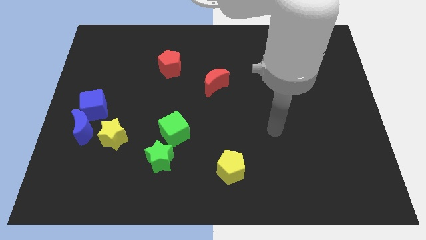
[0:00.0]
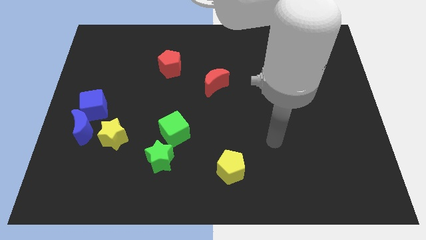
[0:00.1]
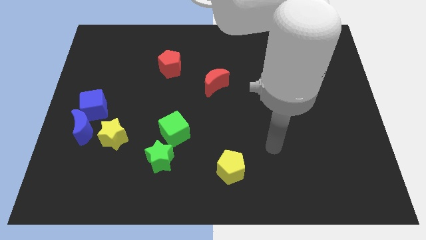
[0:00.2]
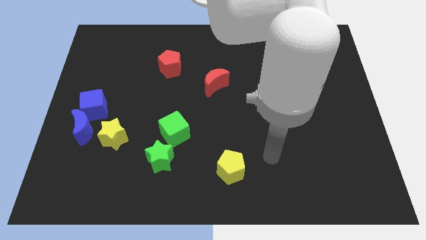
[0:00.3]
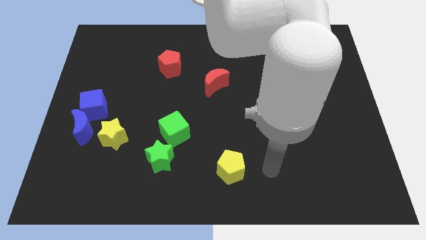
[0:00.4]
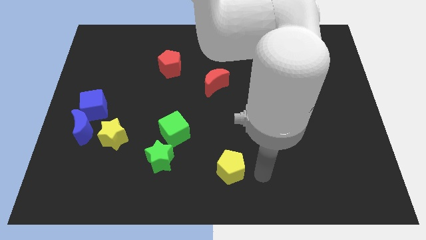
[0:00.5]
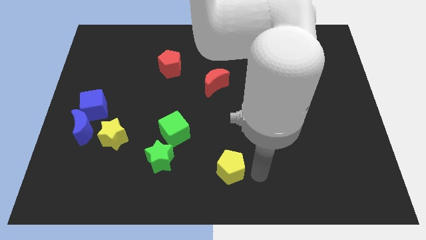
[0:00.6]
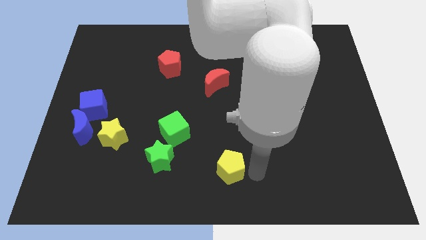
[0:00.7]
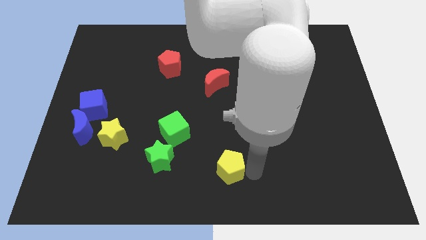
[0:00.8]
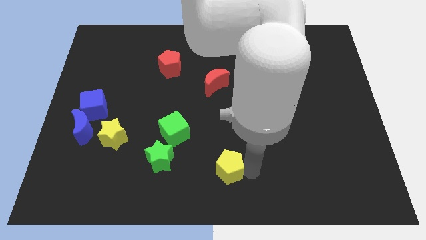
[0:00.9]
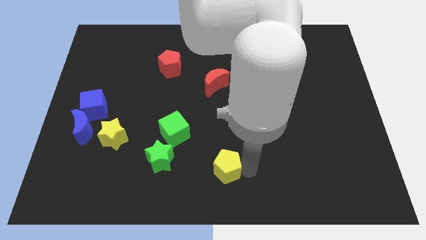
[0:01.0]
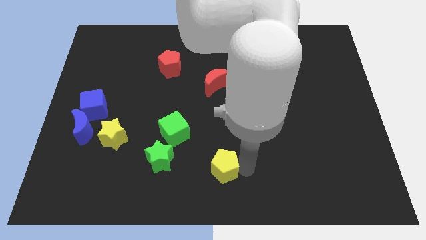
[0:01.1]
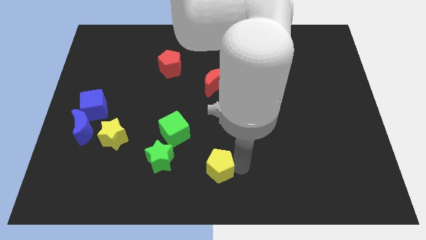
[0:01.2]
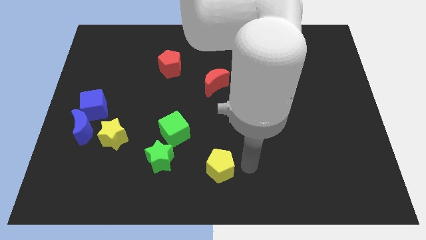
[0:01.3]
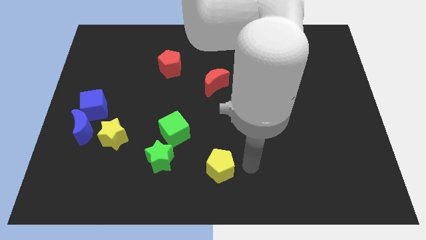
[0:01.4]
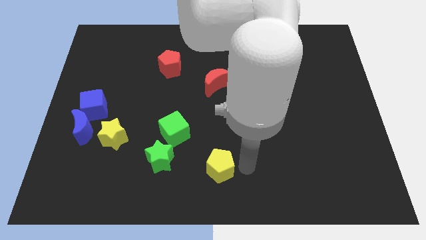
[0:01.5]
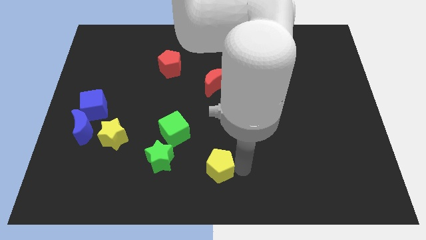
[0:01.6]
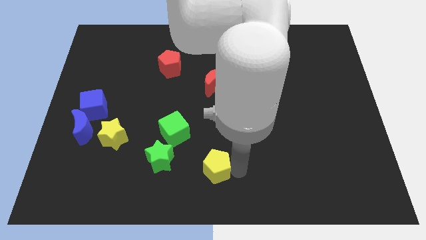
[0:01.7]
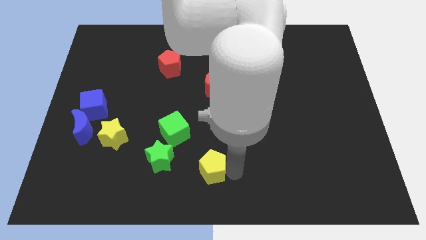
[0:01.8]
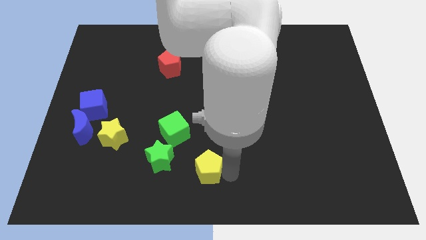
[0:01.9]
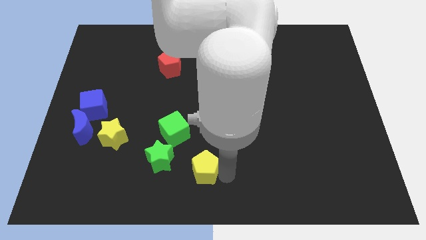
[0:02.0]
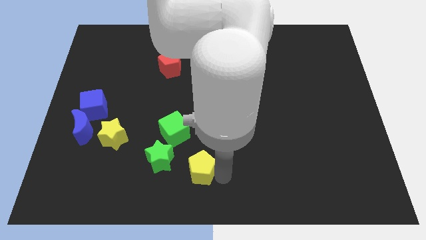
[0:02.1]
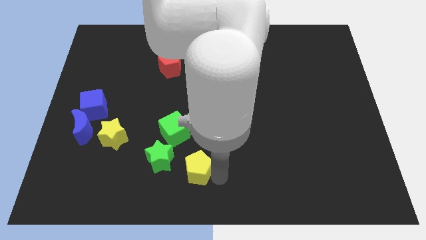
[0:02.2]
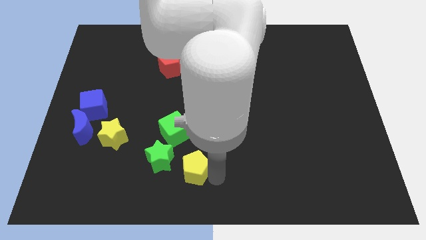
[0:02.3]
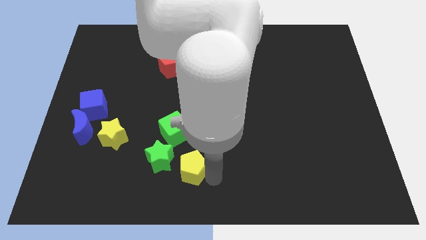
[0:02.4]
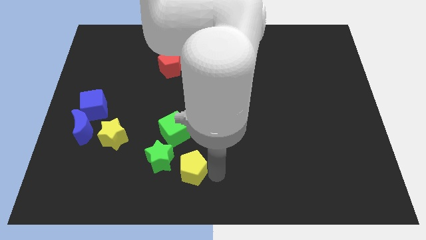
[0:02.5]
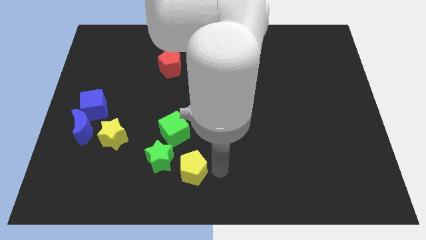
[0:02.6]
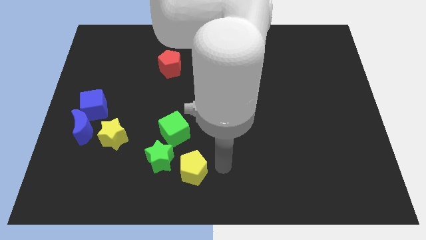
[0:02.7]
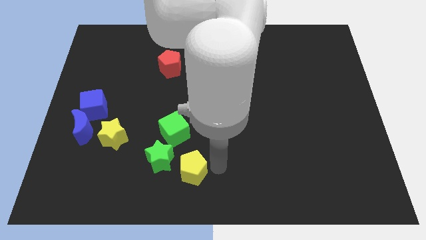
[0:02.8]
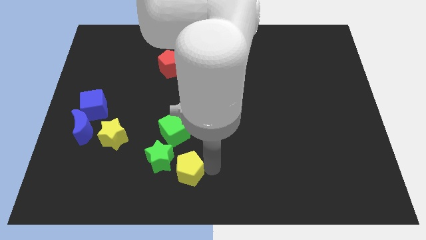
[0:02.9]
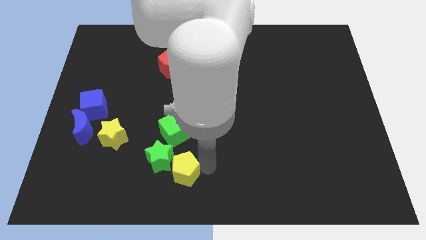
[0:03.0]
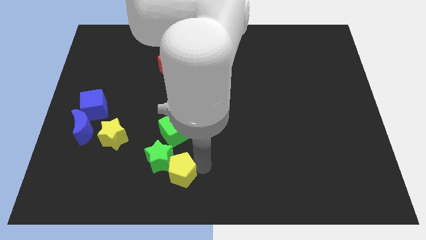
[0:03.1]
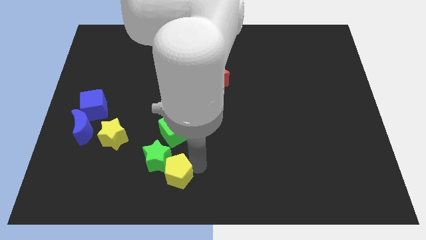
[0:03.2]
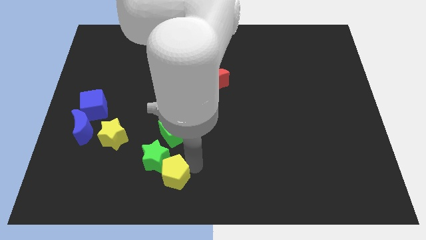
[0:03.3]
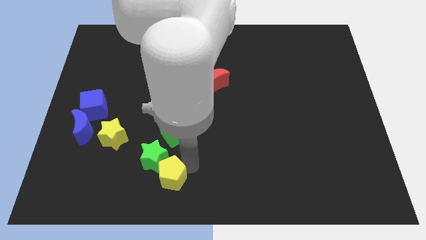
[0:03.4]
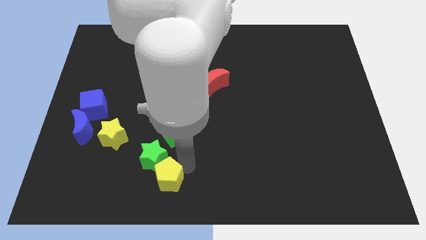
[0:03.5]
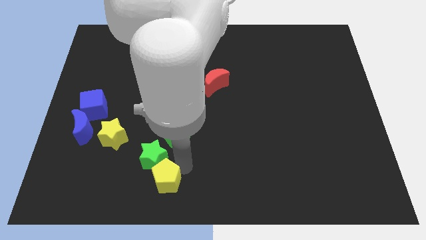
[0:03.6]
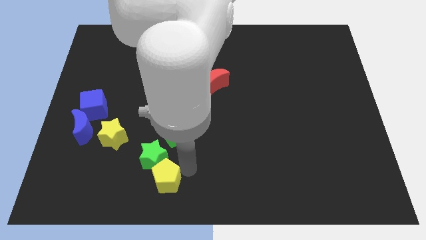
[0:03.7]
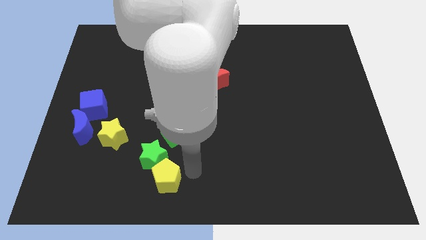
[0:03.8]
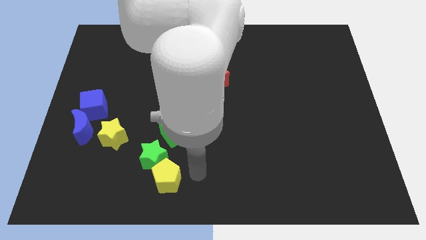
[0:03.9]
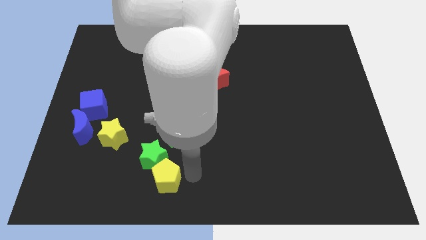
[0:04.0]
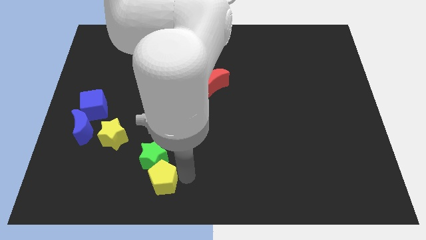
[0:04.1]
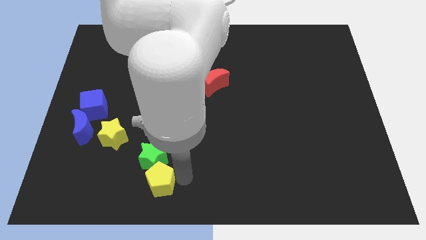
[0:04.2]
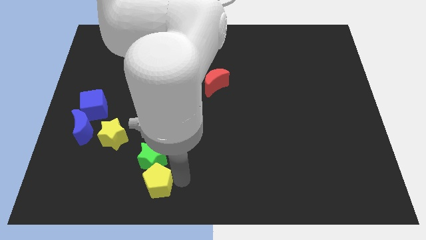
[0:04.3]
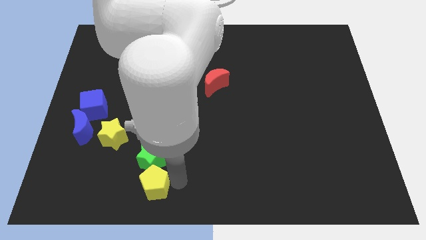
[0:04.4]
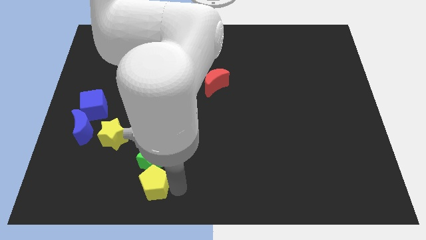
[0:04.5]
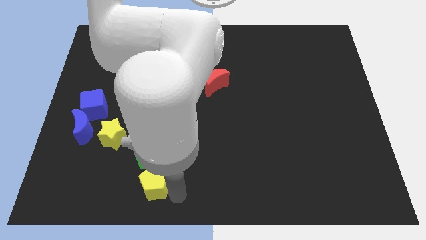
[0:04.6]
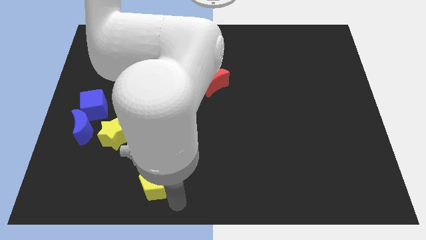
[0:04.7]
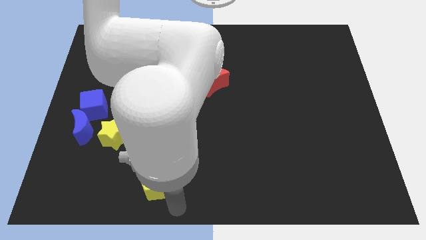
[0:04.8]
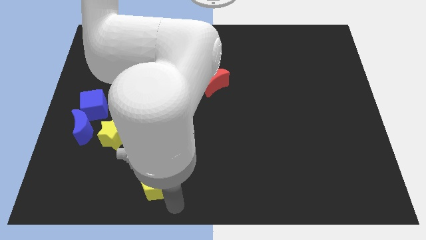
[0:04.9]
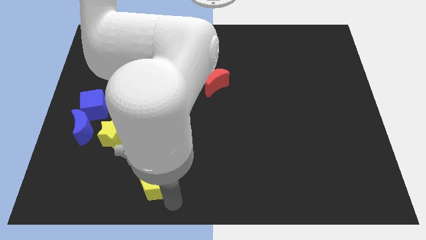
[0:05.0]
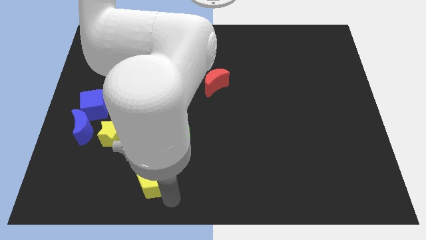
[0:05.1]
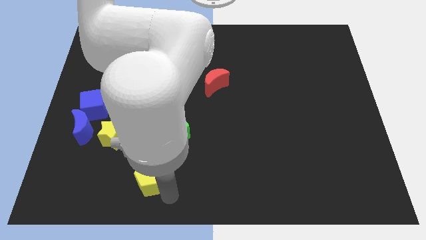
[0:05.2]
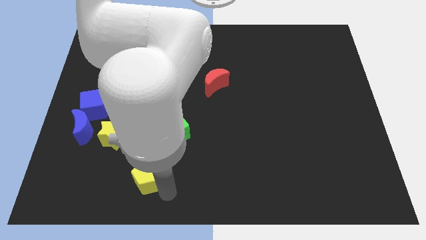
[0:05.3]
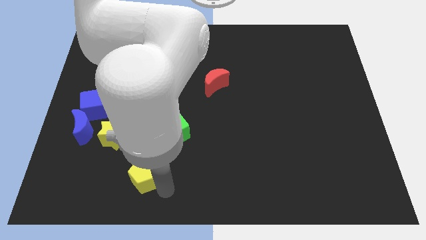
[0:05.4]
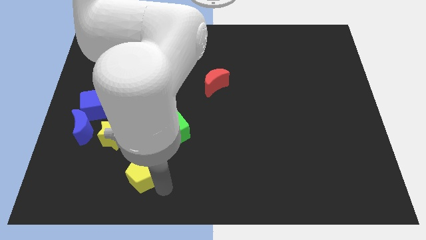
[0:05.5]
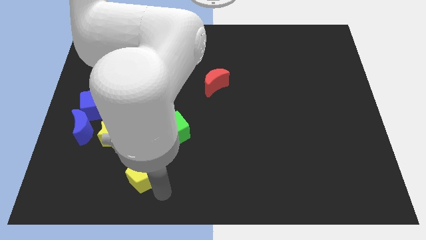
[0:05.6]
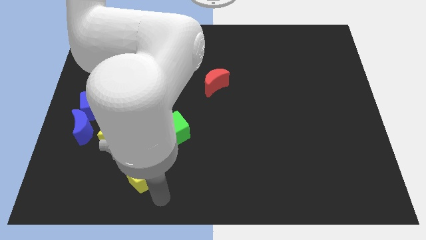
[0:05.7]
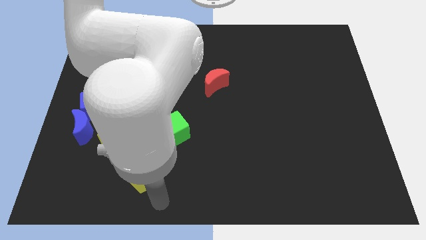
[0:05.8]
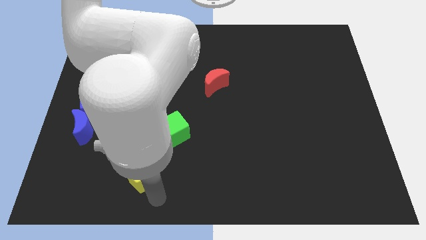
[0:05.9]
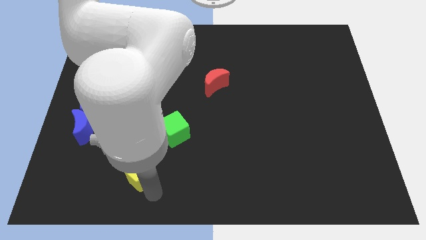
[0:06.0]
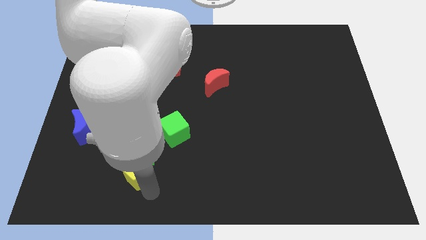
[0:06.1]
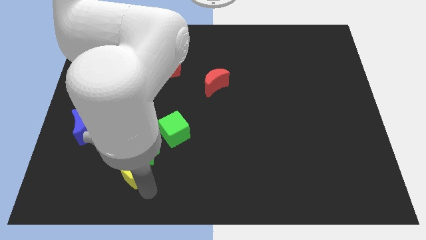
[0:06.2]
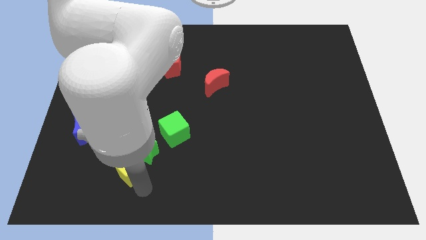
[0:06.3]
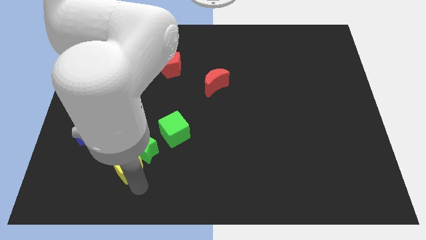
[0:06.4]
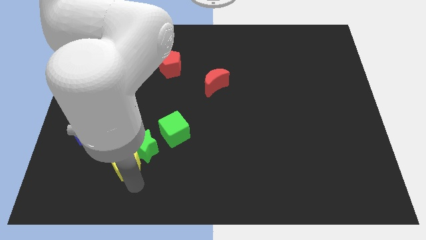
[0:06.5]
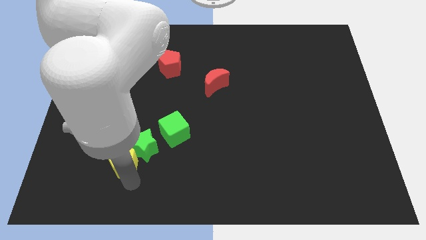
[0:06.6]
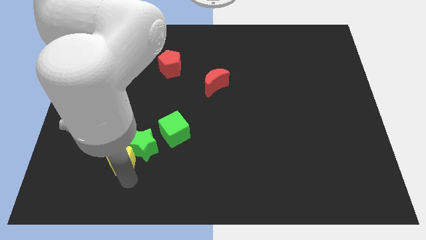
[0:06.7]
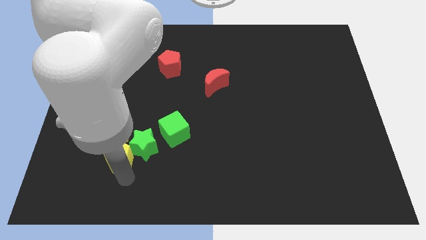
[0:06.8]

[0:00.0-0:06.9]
push the yellow pentagon towards the yellow star
